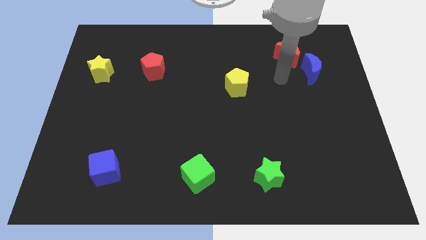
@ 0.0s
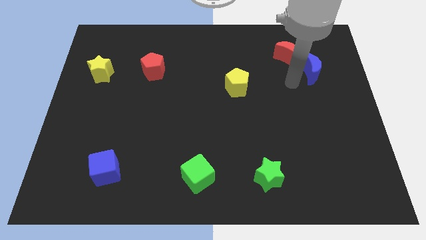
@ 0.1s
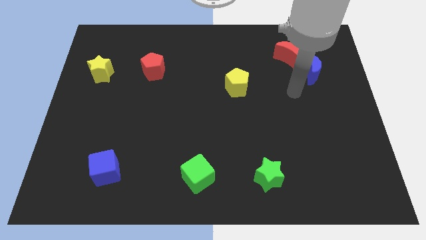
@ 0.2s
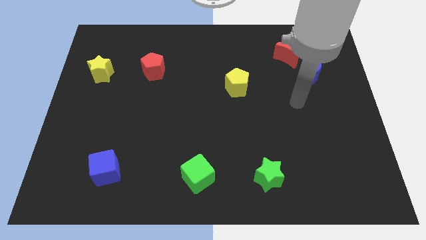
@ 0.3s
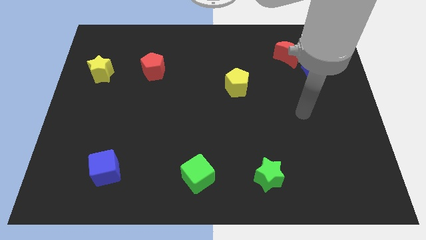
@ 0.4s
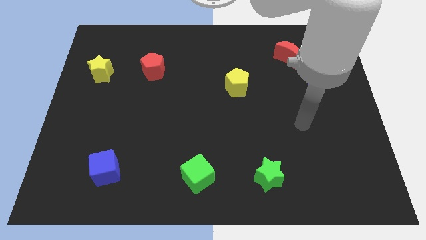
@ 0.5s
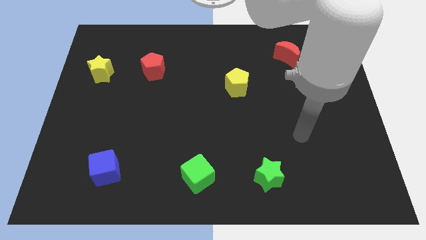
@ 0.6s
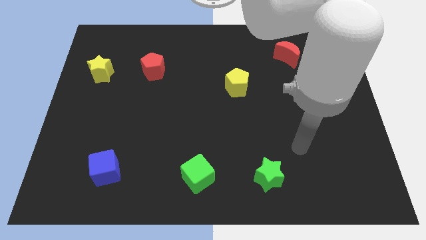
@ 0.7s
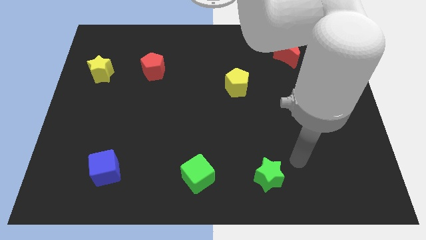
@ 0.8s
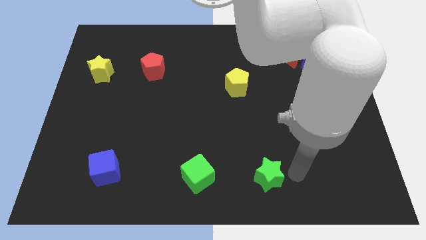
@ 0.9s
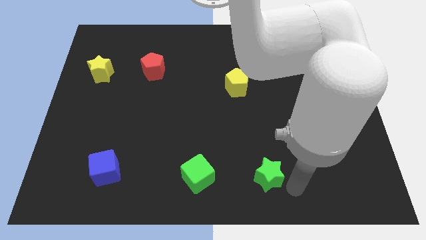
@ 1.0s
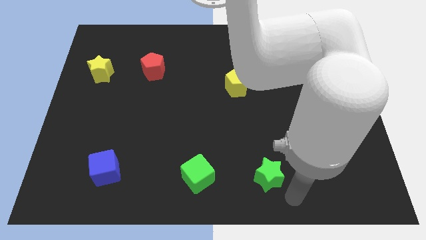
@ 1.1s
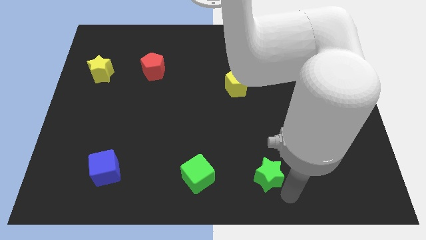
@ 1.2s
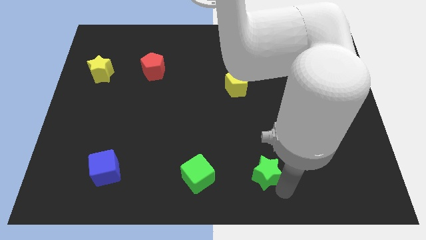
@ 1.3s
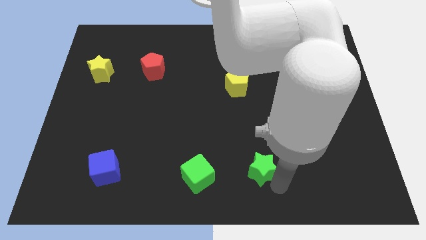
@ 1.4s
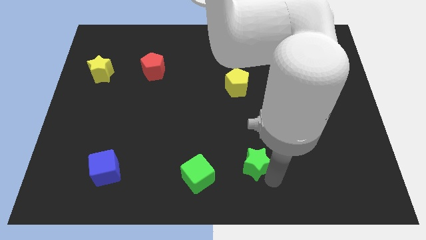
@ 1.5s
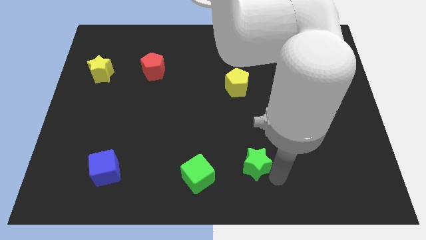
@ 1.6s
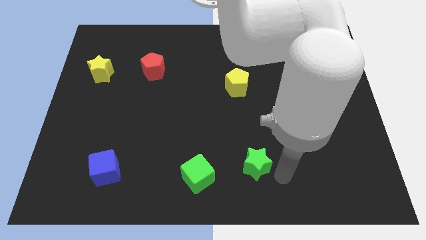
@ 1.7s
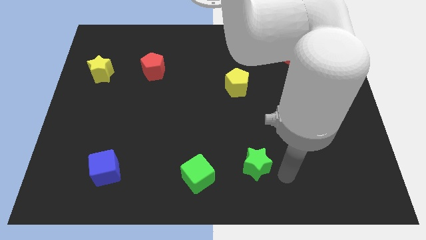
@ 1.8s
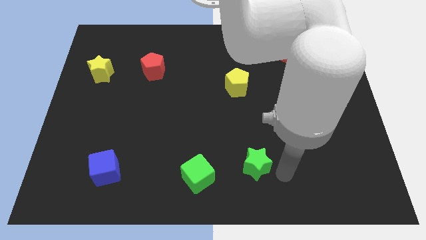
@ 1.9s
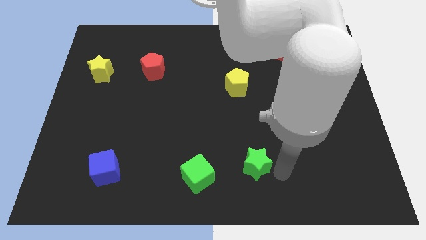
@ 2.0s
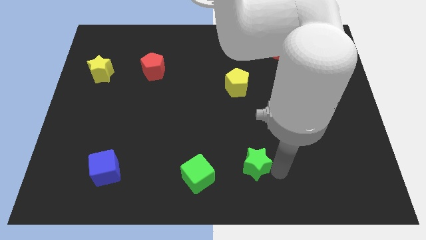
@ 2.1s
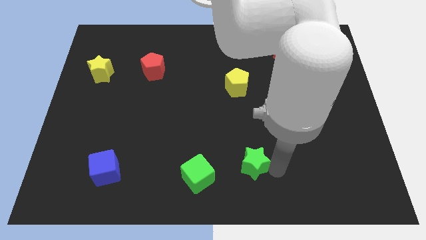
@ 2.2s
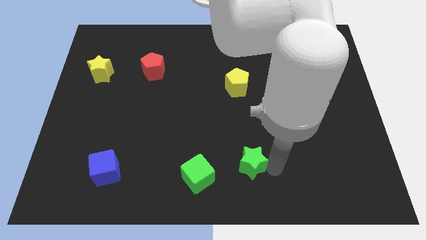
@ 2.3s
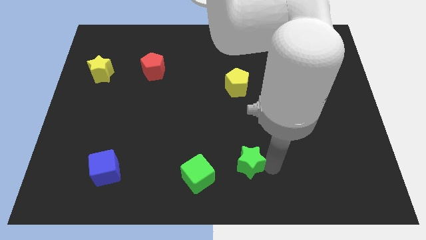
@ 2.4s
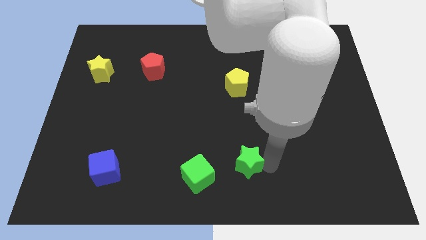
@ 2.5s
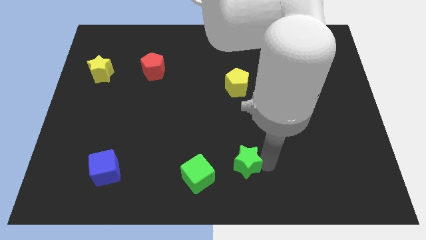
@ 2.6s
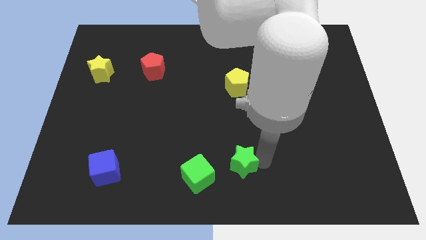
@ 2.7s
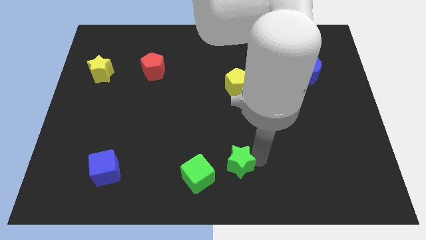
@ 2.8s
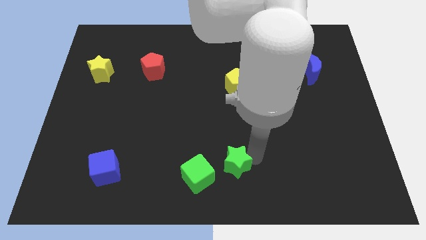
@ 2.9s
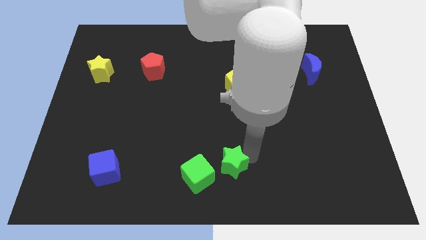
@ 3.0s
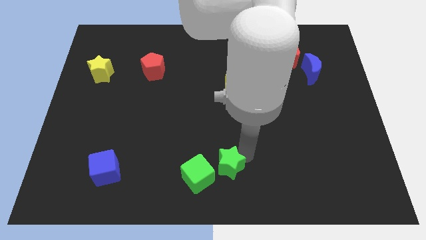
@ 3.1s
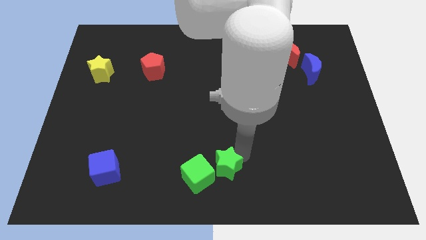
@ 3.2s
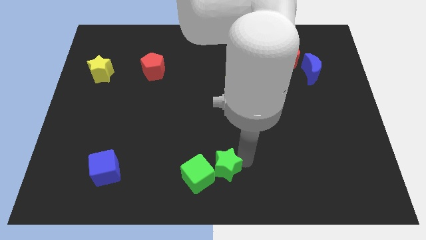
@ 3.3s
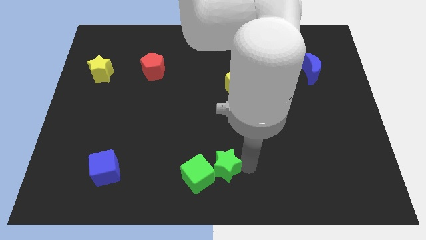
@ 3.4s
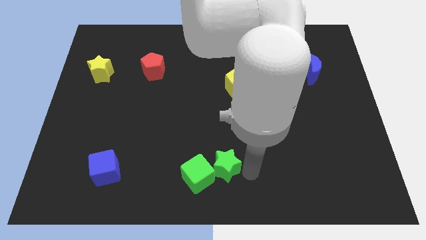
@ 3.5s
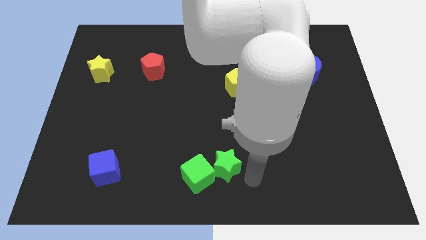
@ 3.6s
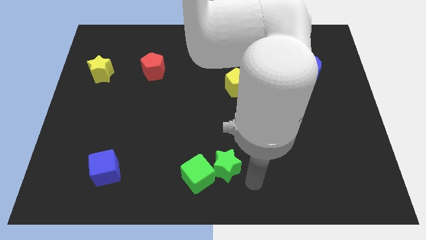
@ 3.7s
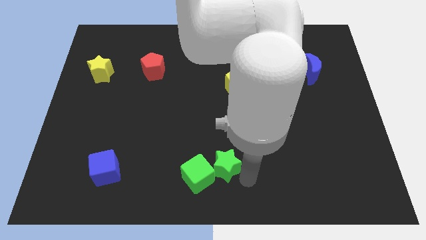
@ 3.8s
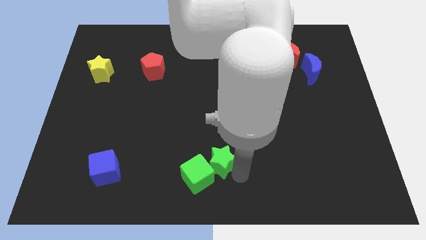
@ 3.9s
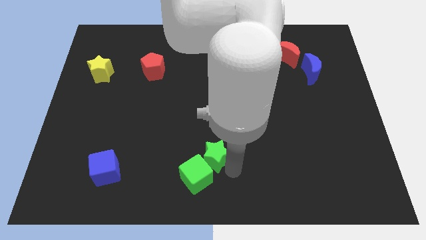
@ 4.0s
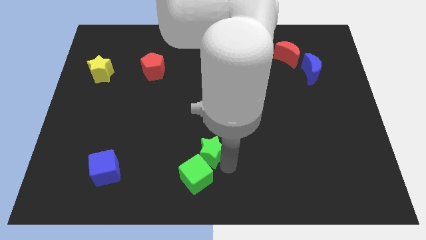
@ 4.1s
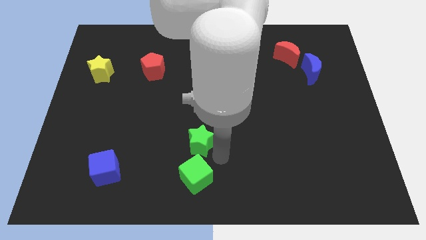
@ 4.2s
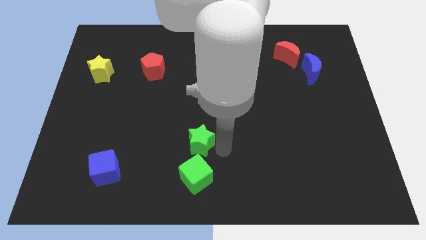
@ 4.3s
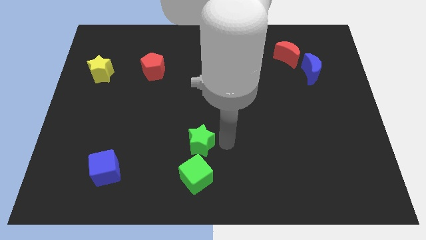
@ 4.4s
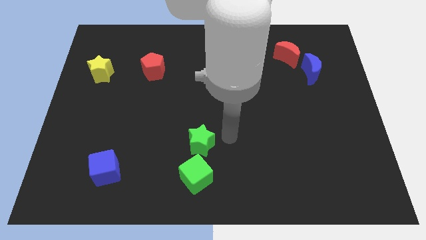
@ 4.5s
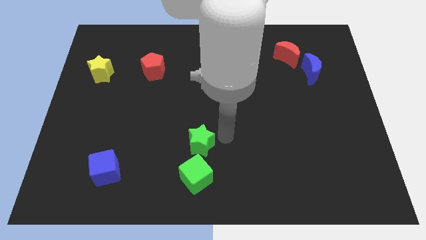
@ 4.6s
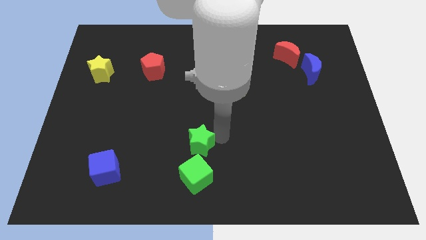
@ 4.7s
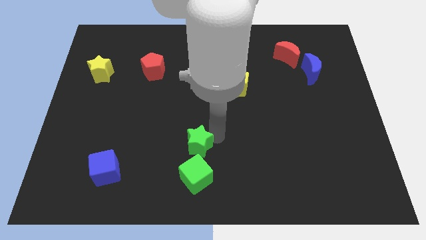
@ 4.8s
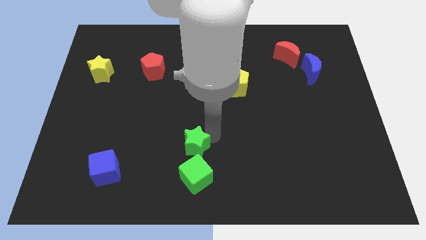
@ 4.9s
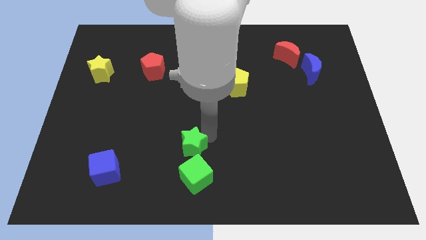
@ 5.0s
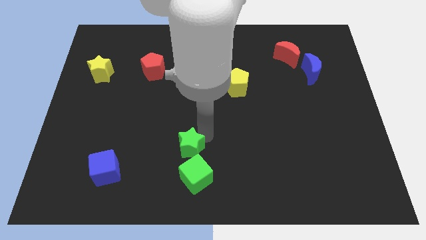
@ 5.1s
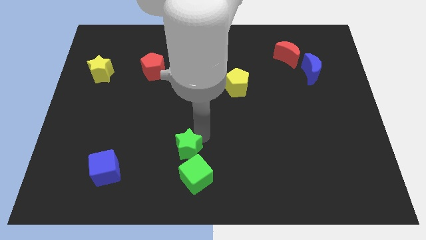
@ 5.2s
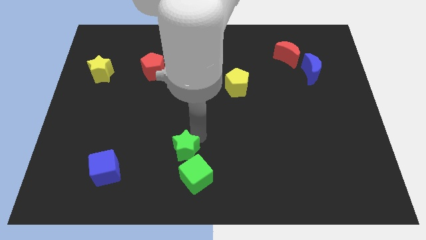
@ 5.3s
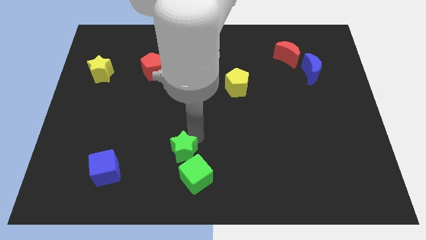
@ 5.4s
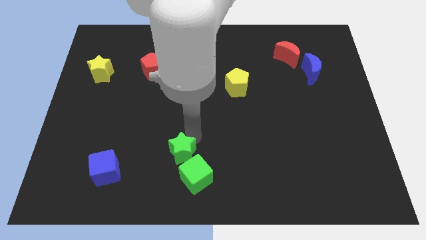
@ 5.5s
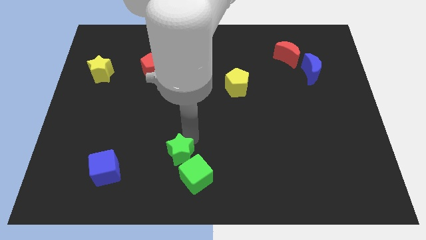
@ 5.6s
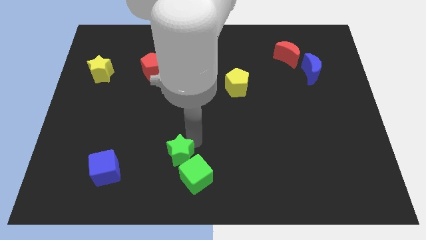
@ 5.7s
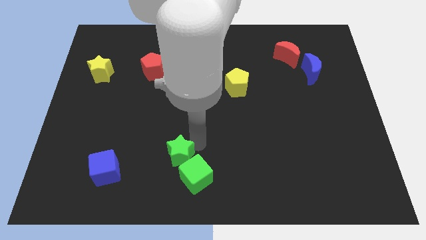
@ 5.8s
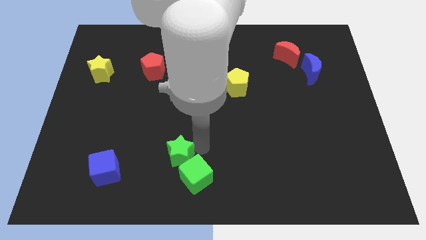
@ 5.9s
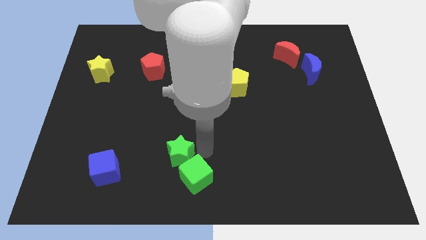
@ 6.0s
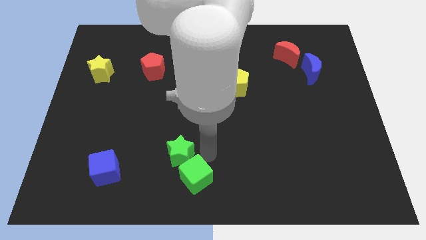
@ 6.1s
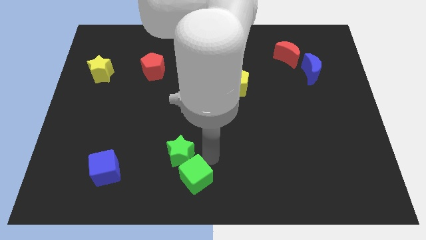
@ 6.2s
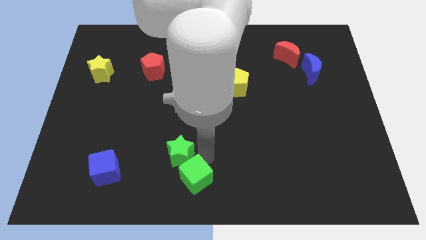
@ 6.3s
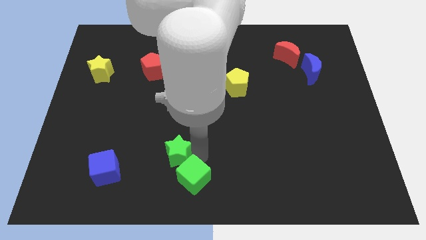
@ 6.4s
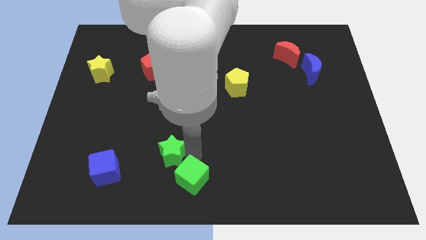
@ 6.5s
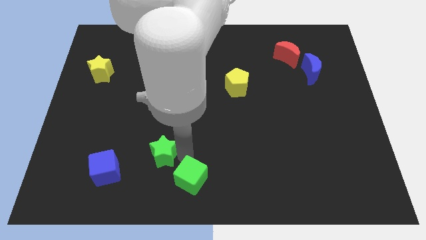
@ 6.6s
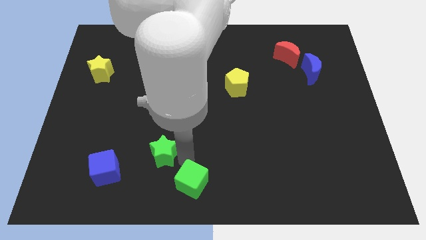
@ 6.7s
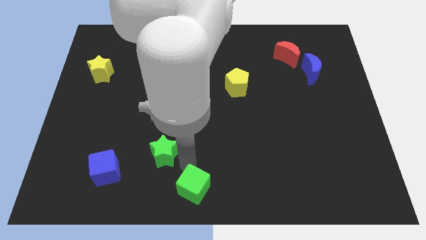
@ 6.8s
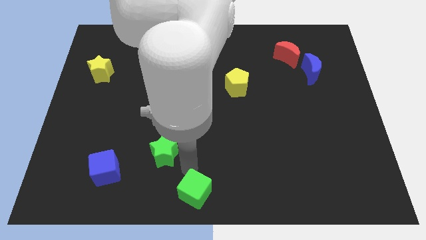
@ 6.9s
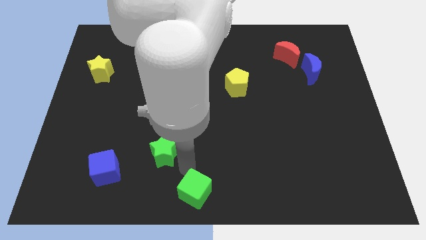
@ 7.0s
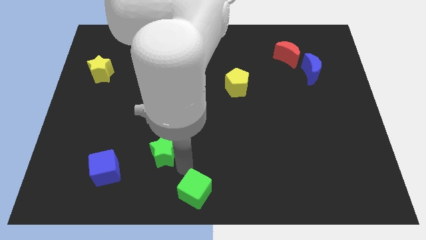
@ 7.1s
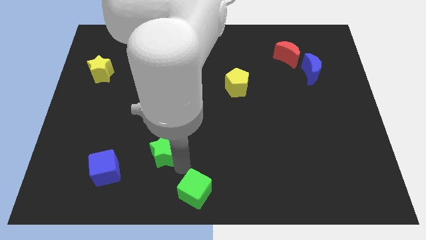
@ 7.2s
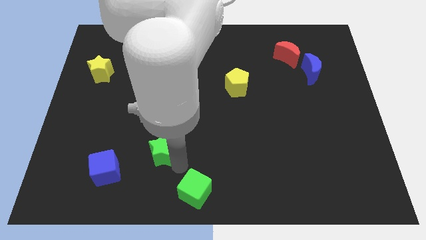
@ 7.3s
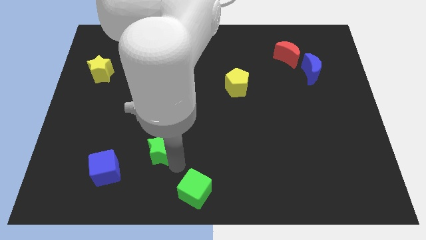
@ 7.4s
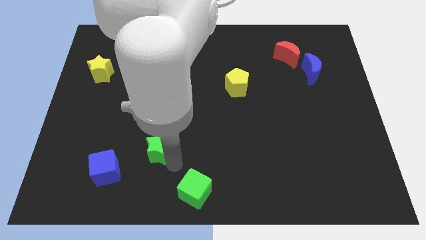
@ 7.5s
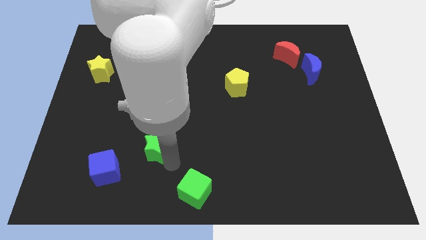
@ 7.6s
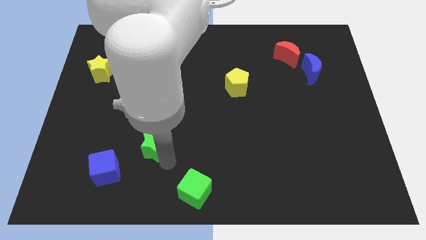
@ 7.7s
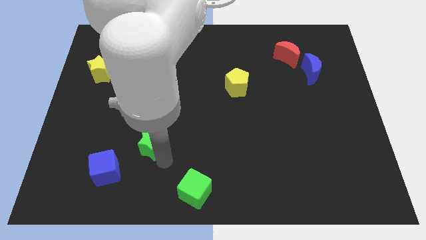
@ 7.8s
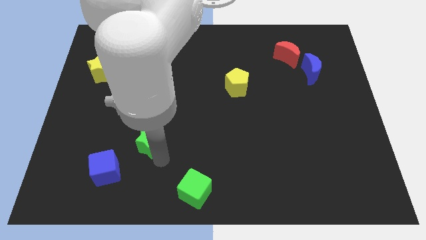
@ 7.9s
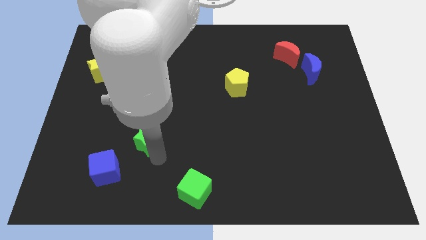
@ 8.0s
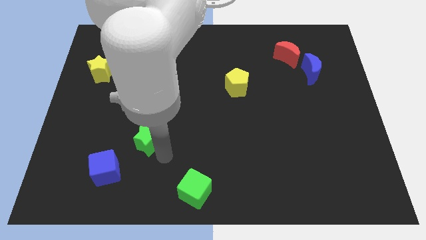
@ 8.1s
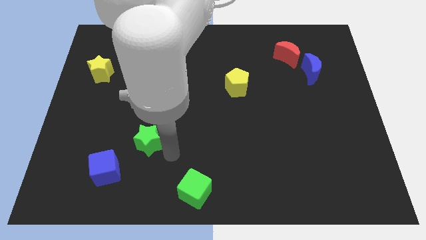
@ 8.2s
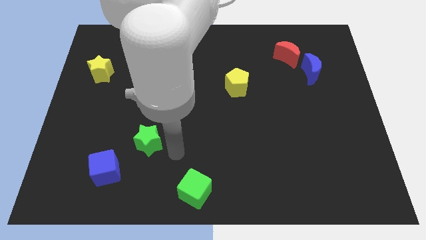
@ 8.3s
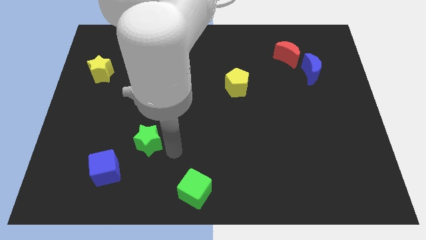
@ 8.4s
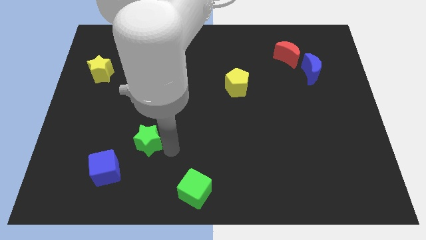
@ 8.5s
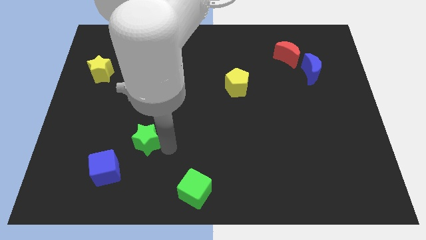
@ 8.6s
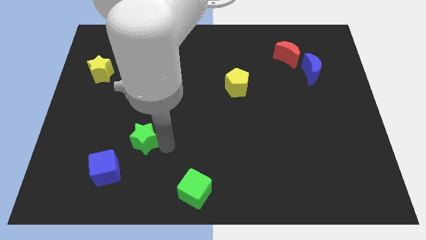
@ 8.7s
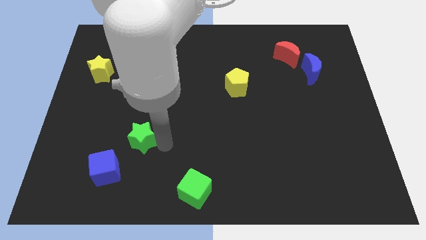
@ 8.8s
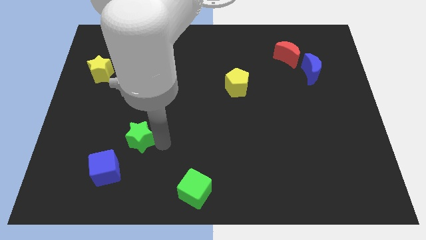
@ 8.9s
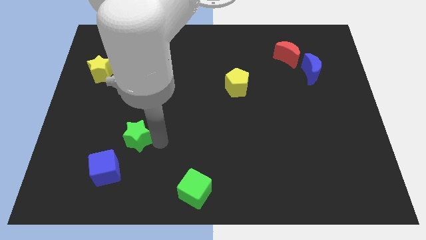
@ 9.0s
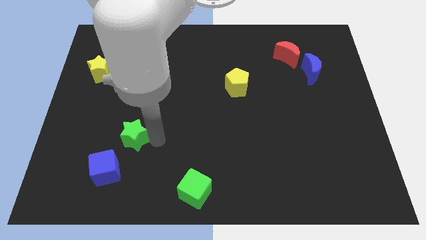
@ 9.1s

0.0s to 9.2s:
slide the green star to the top side of the blue cube
